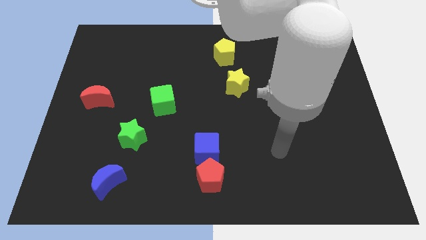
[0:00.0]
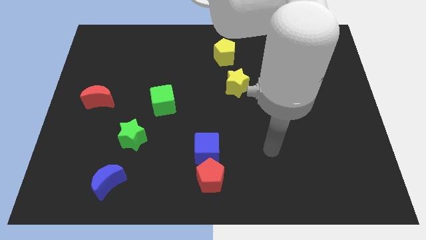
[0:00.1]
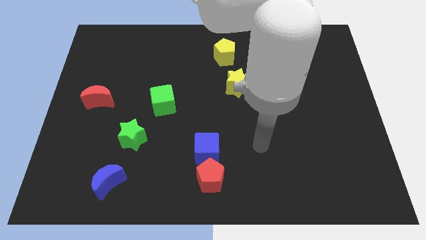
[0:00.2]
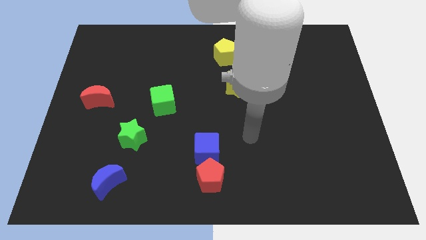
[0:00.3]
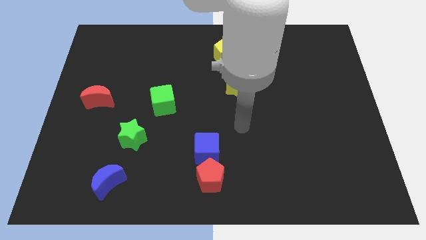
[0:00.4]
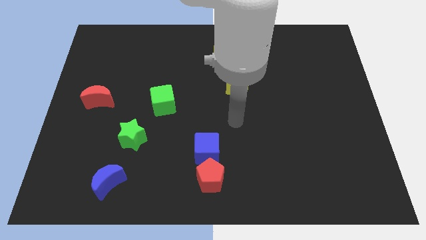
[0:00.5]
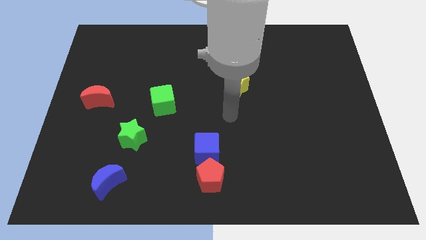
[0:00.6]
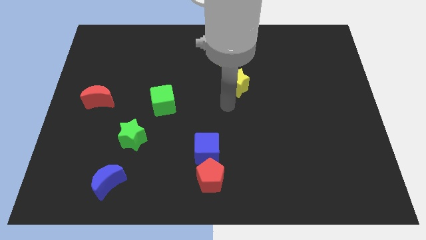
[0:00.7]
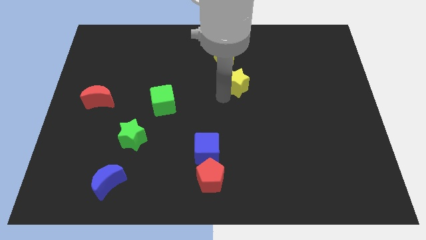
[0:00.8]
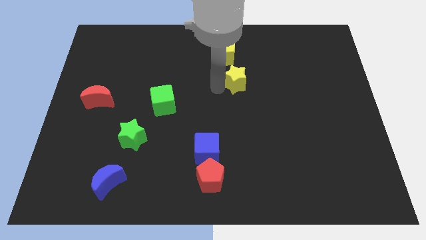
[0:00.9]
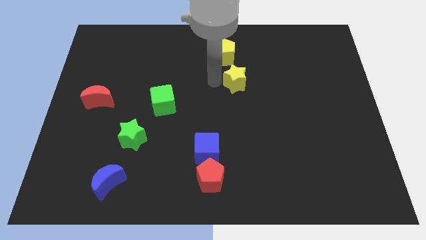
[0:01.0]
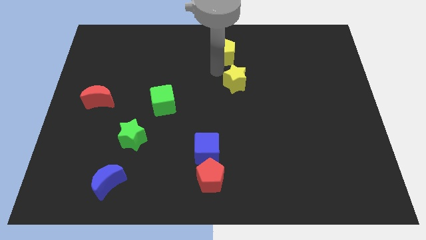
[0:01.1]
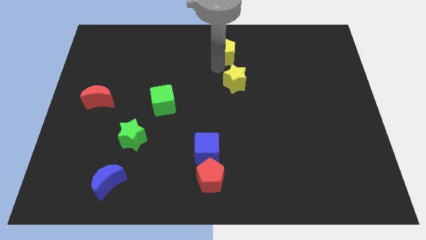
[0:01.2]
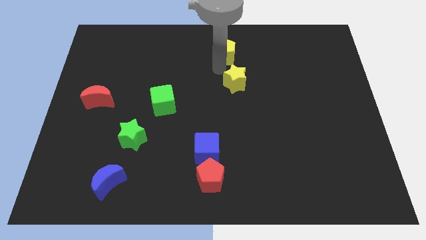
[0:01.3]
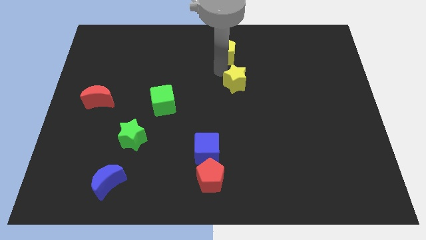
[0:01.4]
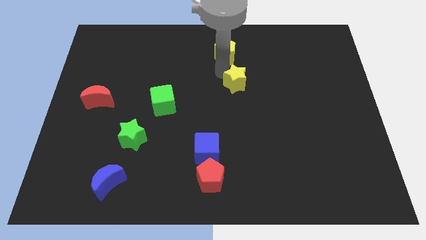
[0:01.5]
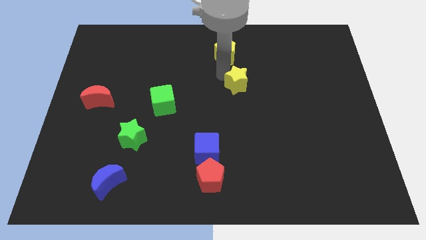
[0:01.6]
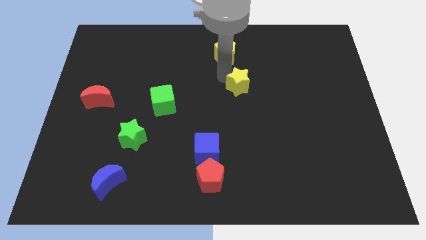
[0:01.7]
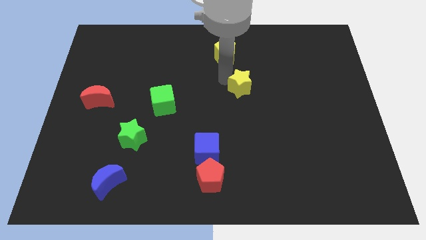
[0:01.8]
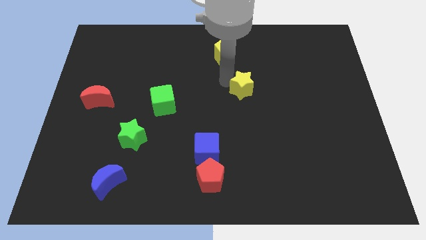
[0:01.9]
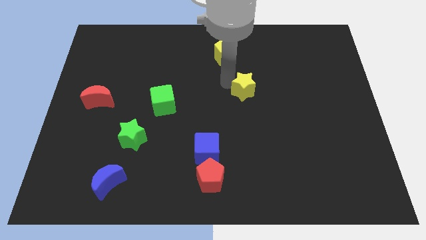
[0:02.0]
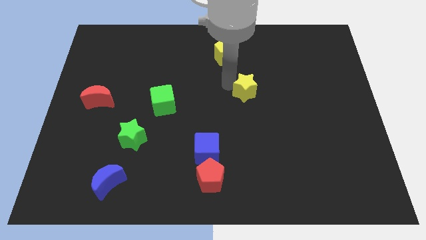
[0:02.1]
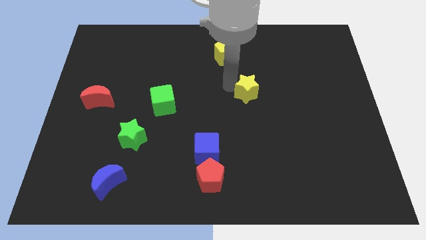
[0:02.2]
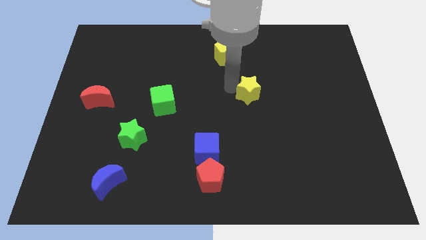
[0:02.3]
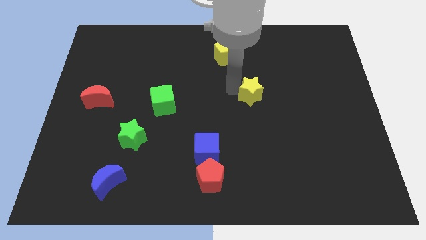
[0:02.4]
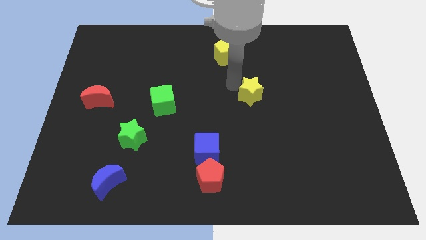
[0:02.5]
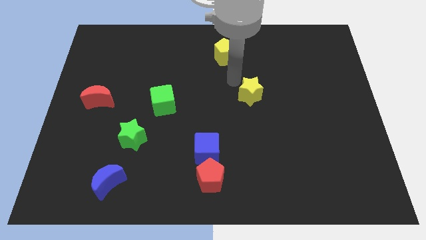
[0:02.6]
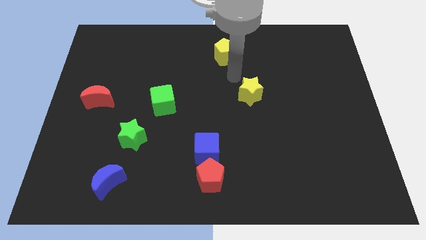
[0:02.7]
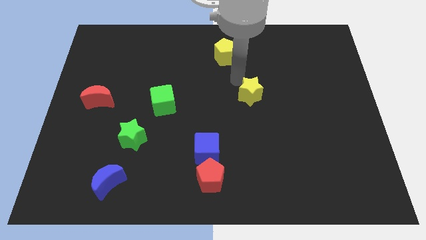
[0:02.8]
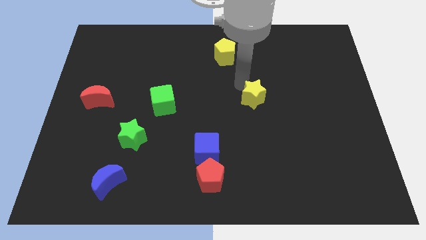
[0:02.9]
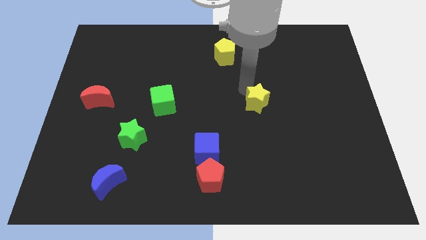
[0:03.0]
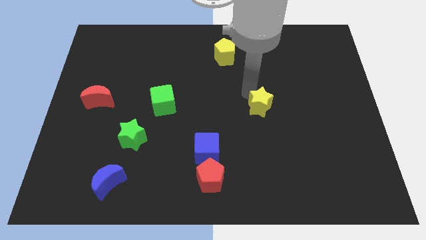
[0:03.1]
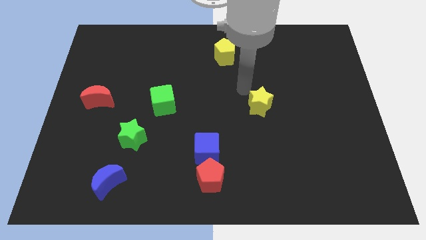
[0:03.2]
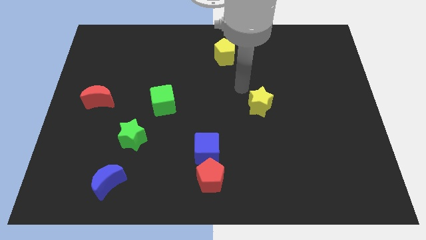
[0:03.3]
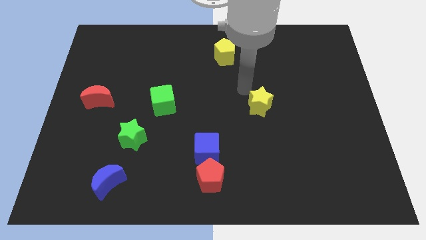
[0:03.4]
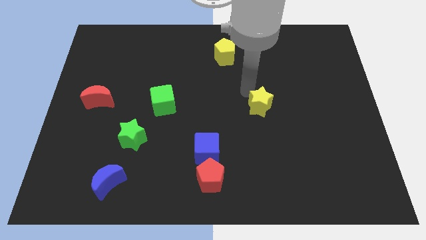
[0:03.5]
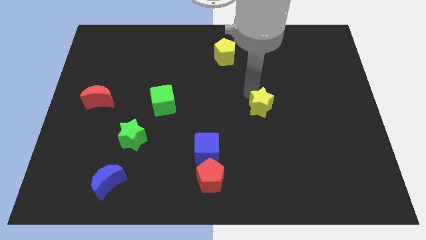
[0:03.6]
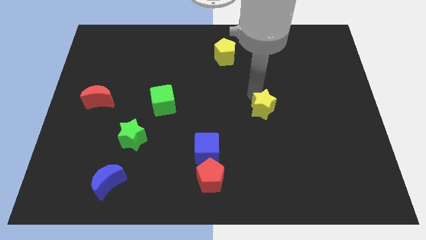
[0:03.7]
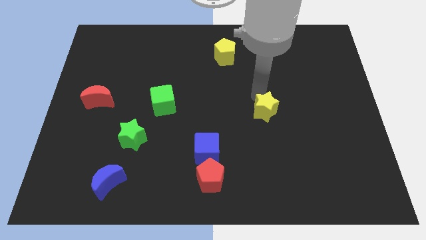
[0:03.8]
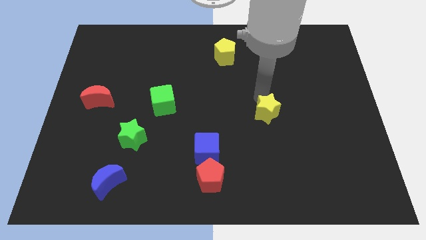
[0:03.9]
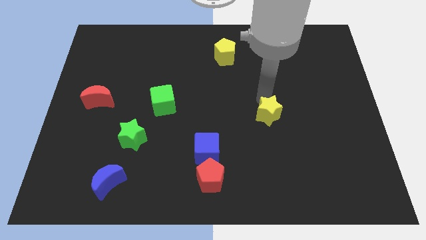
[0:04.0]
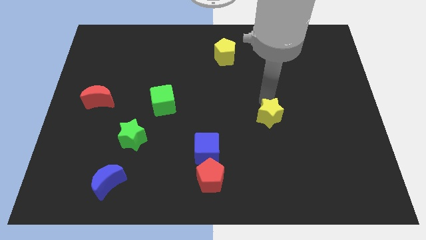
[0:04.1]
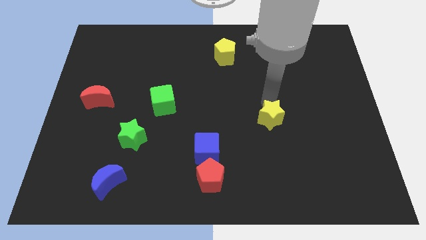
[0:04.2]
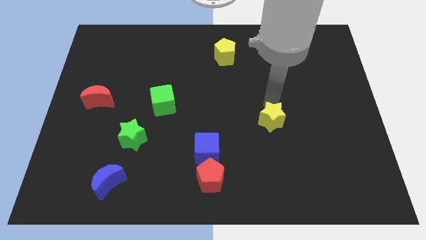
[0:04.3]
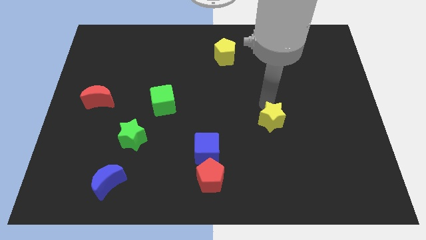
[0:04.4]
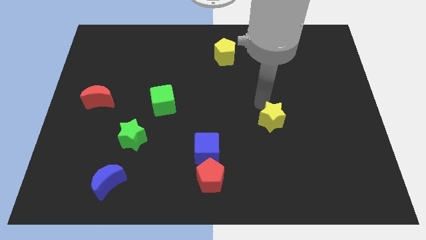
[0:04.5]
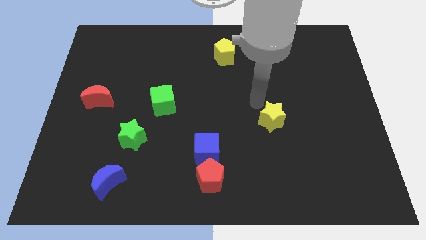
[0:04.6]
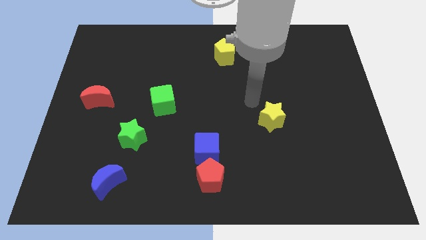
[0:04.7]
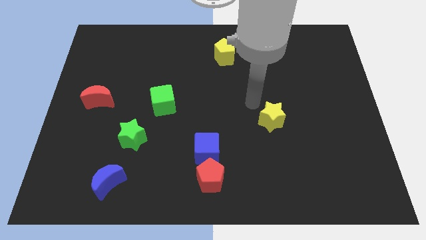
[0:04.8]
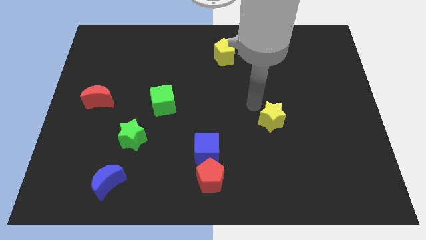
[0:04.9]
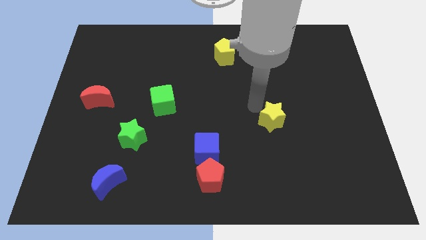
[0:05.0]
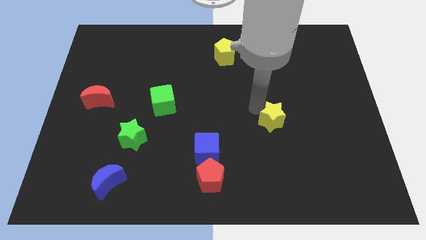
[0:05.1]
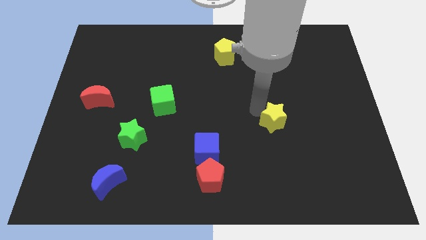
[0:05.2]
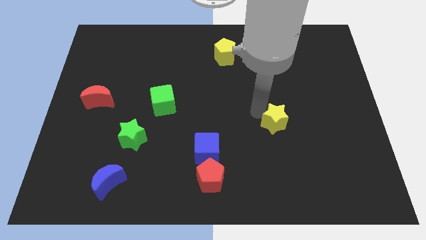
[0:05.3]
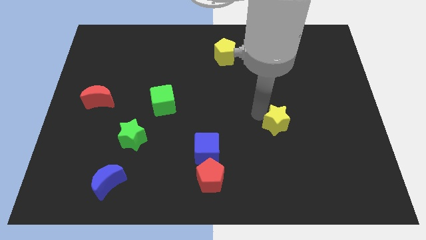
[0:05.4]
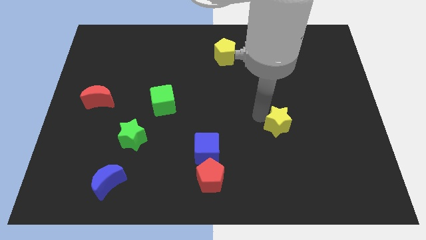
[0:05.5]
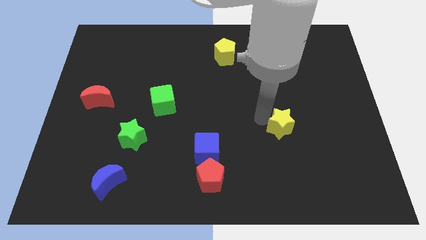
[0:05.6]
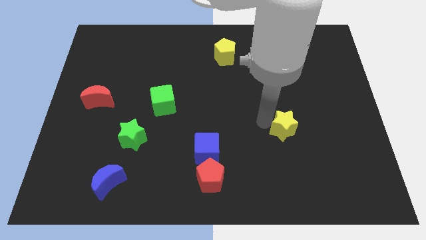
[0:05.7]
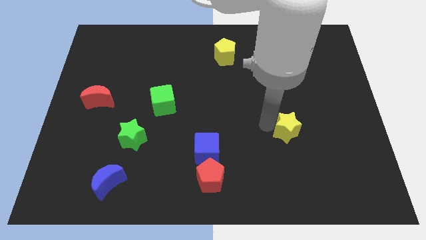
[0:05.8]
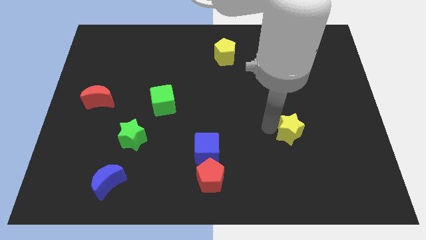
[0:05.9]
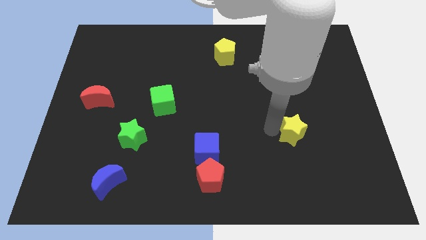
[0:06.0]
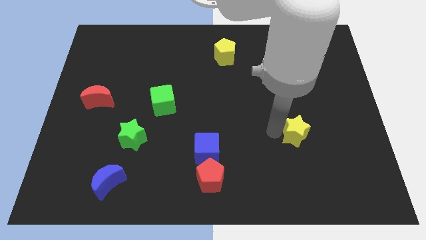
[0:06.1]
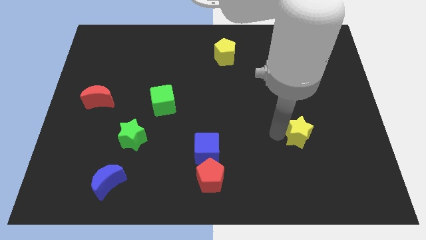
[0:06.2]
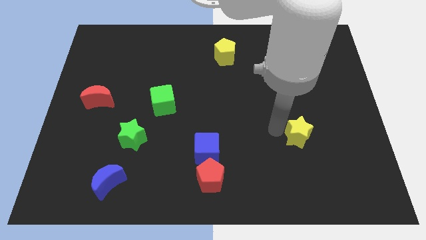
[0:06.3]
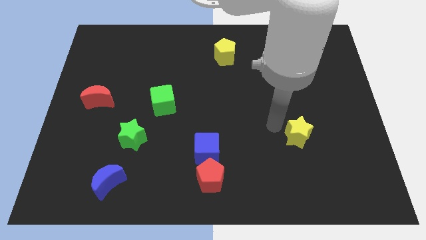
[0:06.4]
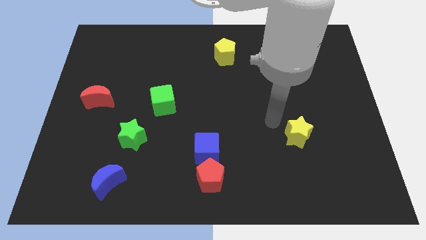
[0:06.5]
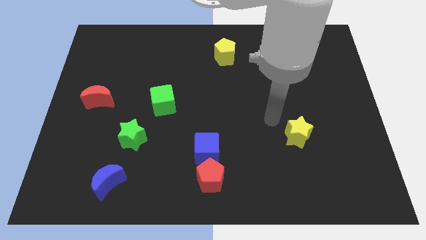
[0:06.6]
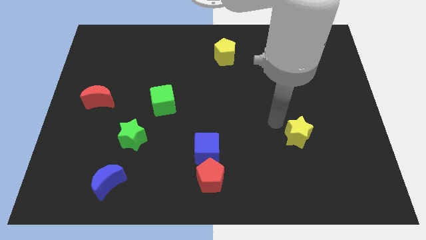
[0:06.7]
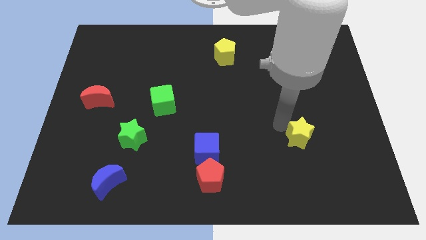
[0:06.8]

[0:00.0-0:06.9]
slide the yellow star diagonally down and to the right

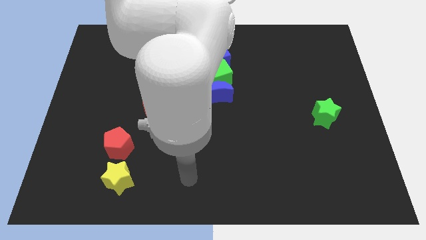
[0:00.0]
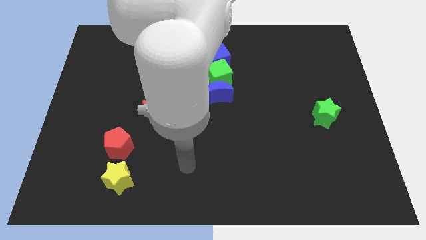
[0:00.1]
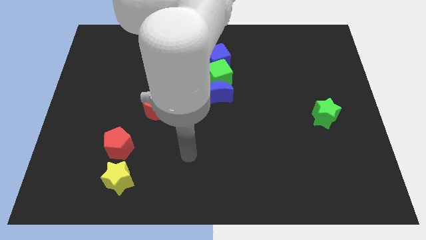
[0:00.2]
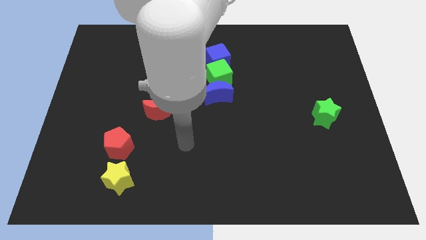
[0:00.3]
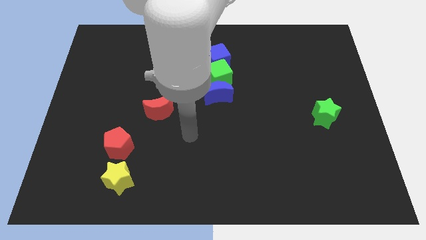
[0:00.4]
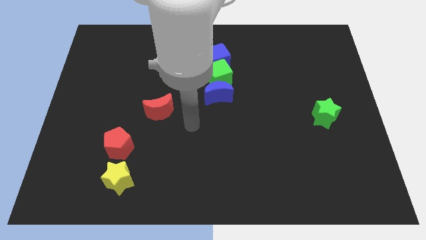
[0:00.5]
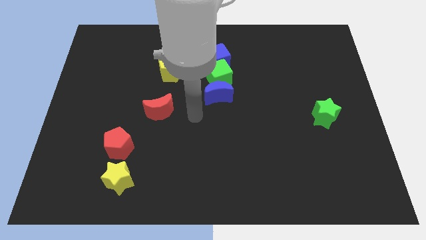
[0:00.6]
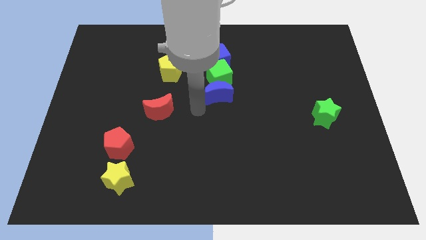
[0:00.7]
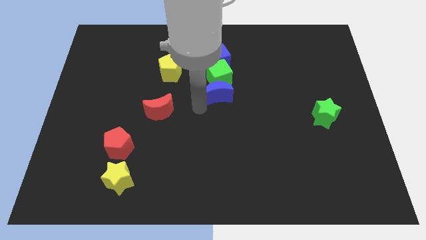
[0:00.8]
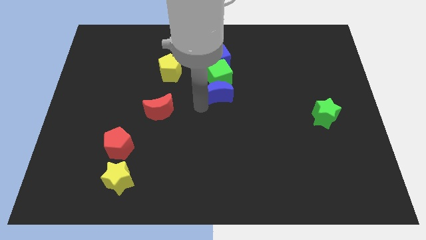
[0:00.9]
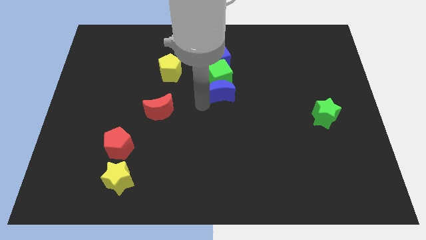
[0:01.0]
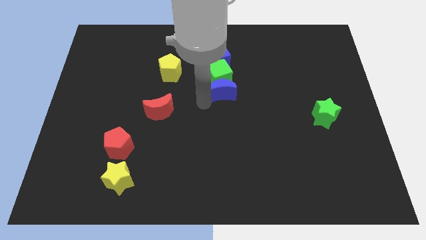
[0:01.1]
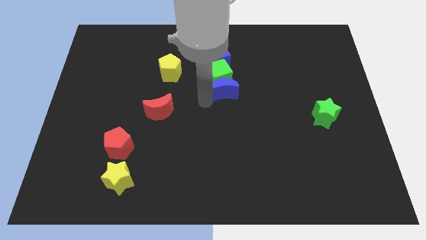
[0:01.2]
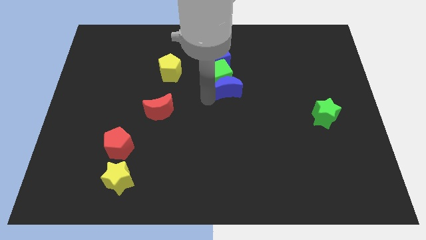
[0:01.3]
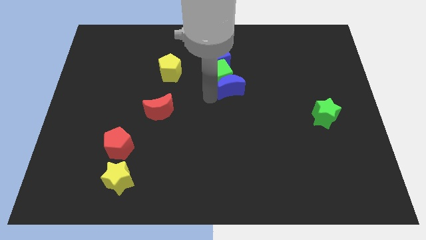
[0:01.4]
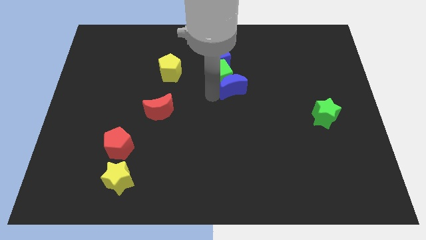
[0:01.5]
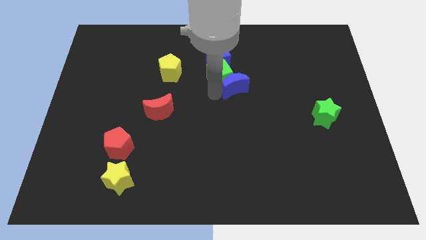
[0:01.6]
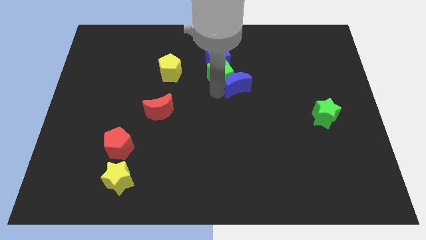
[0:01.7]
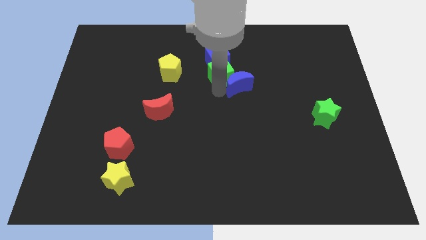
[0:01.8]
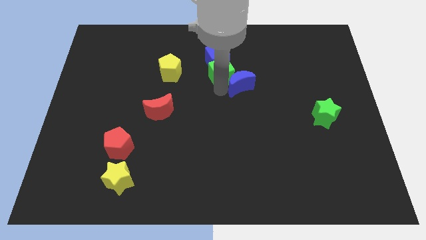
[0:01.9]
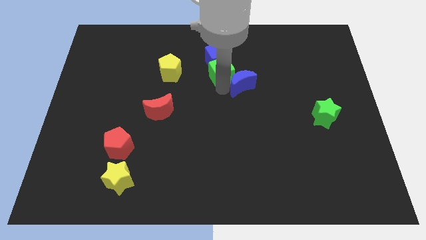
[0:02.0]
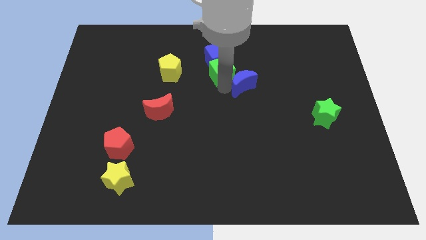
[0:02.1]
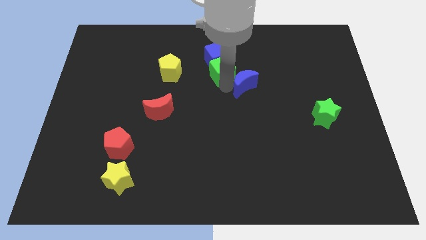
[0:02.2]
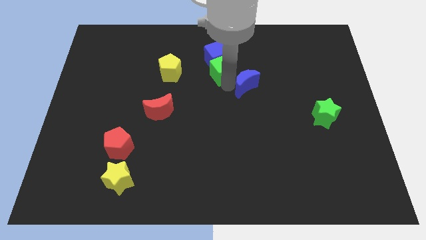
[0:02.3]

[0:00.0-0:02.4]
move the blue moon slightly up and to the right diagonally
